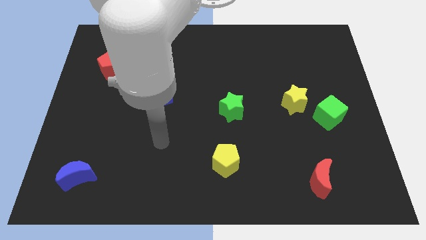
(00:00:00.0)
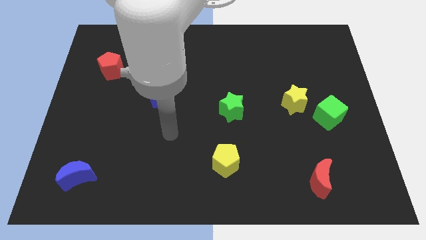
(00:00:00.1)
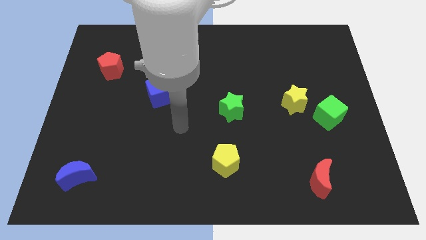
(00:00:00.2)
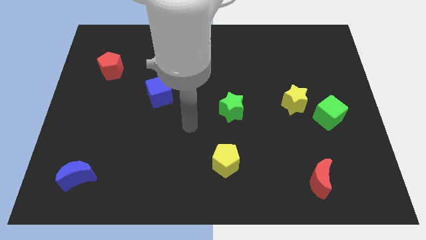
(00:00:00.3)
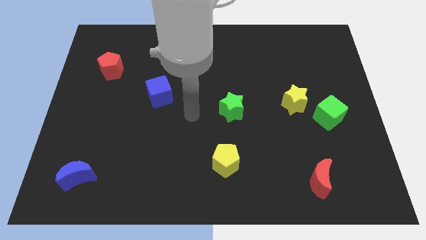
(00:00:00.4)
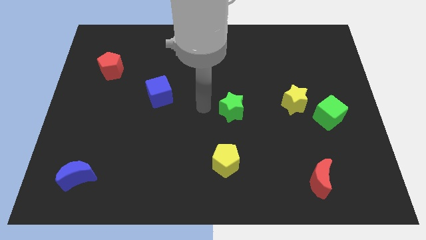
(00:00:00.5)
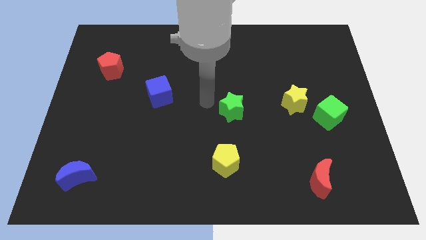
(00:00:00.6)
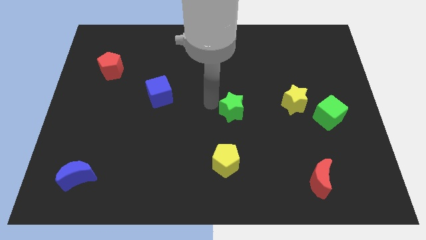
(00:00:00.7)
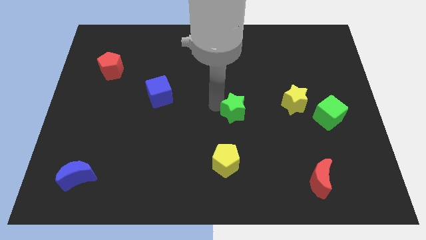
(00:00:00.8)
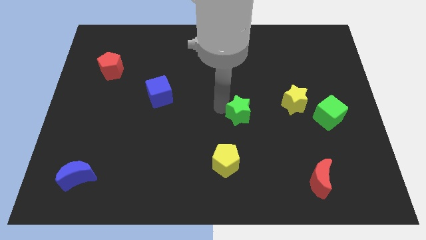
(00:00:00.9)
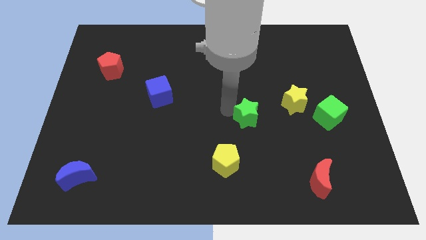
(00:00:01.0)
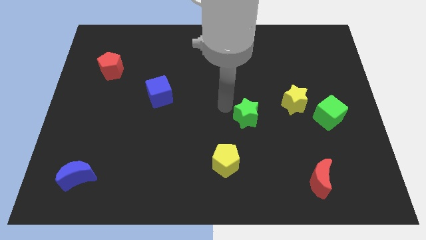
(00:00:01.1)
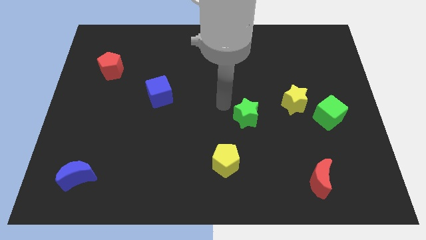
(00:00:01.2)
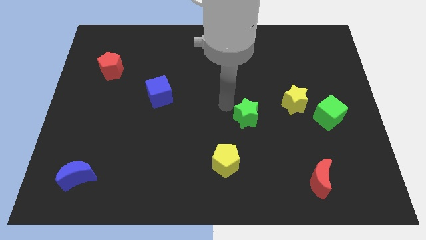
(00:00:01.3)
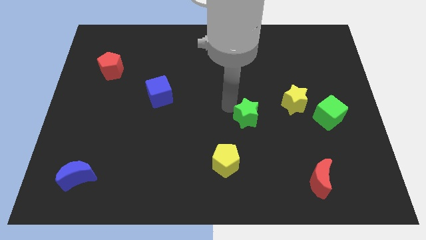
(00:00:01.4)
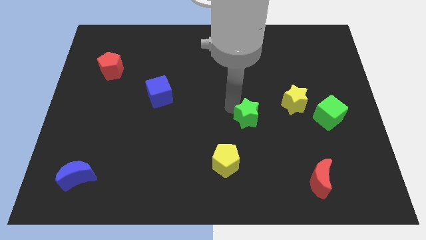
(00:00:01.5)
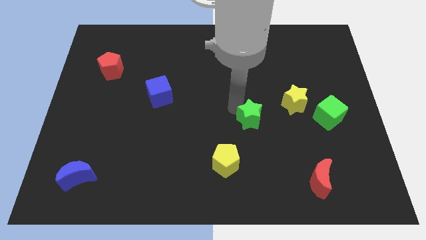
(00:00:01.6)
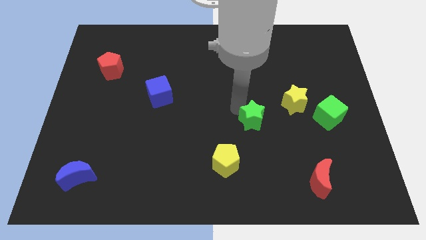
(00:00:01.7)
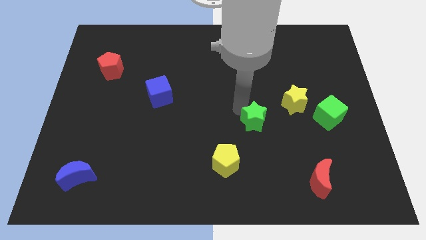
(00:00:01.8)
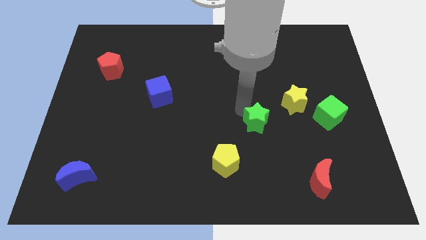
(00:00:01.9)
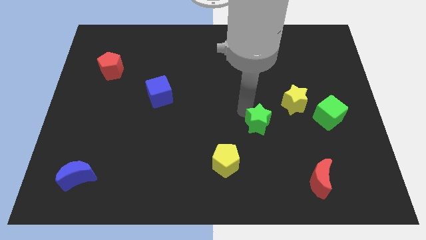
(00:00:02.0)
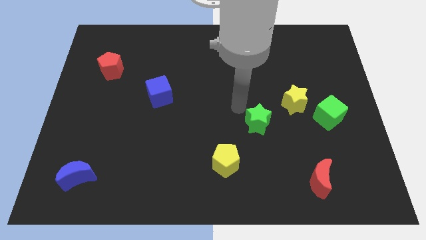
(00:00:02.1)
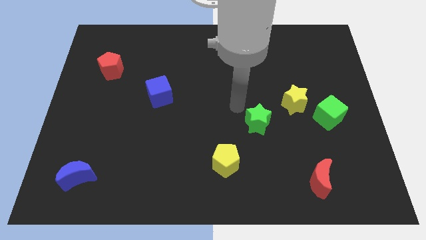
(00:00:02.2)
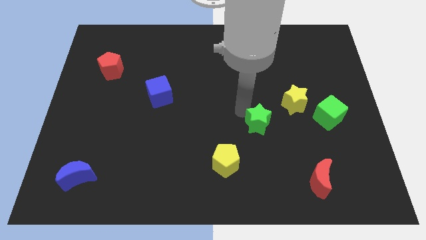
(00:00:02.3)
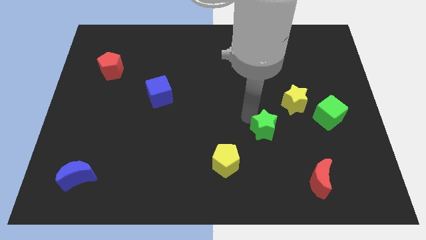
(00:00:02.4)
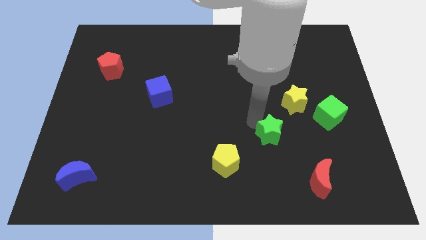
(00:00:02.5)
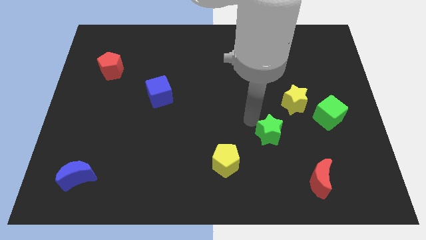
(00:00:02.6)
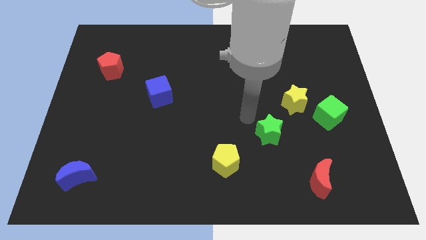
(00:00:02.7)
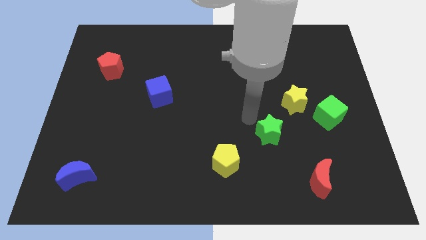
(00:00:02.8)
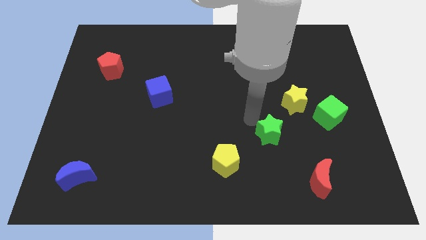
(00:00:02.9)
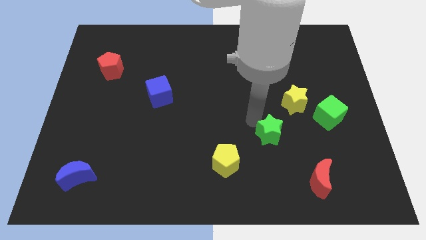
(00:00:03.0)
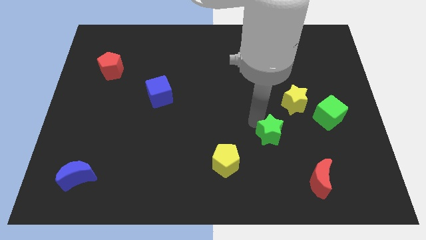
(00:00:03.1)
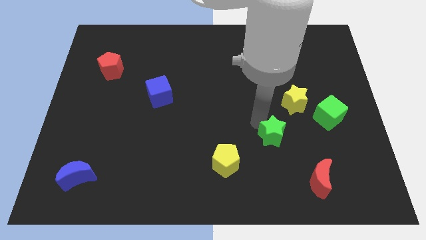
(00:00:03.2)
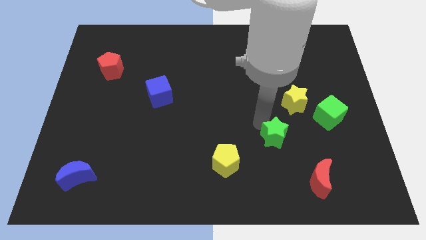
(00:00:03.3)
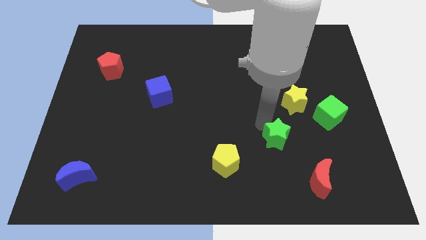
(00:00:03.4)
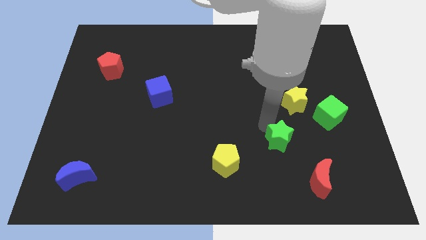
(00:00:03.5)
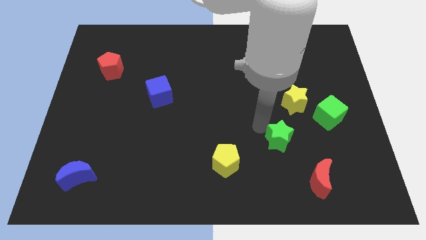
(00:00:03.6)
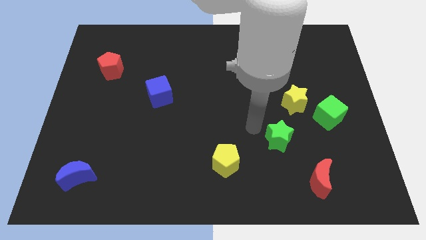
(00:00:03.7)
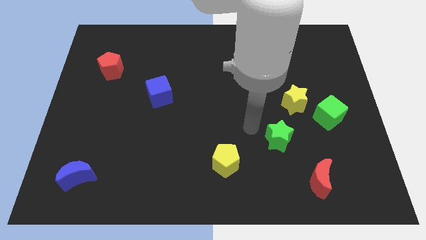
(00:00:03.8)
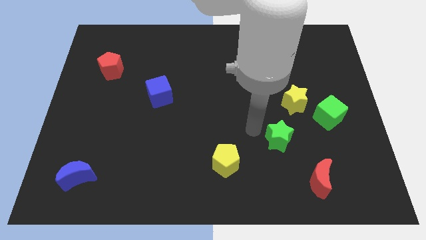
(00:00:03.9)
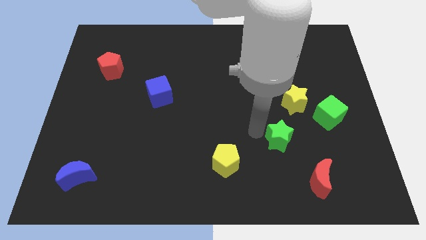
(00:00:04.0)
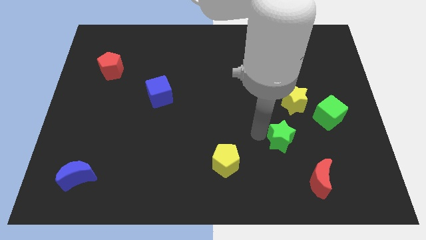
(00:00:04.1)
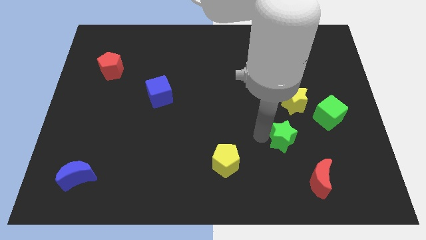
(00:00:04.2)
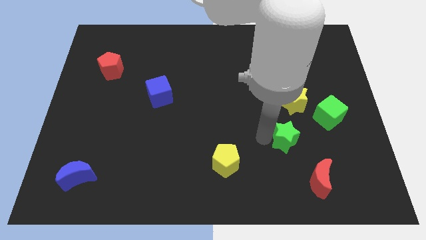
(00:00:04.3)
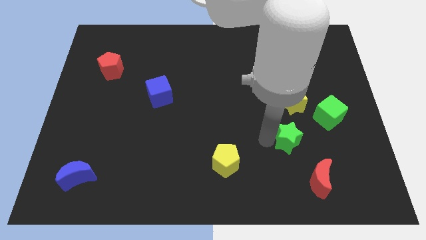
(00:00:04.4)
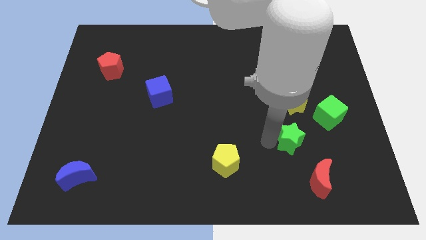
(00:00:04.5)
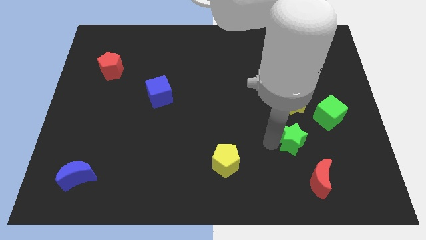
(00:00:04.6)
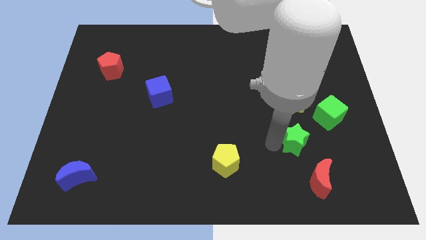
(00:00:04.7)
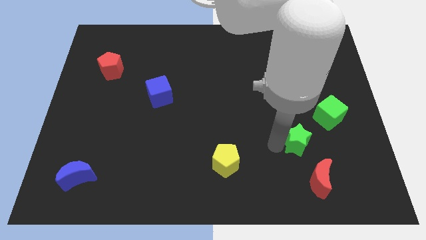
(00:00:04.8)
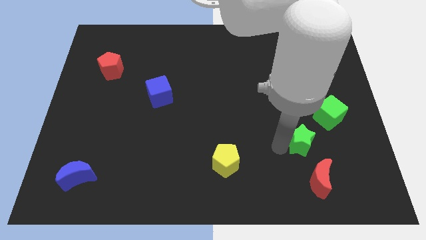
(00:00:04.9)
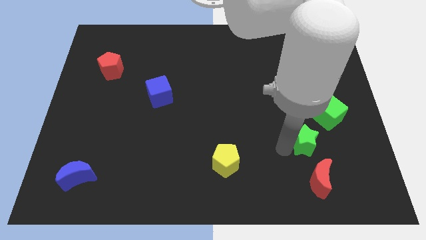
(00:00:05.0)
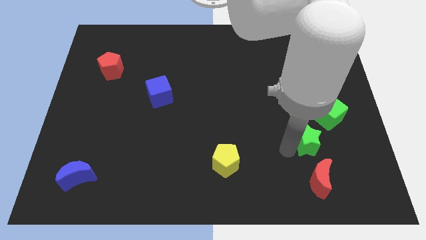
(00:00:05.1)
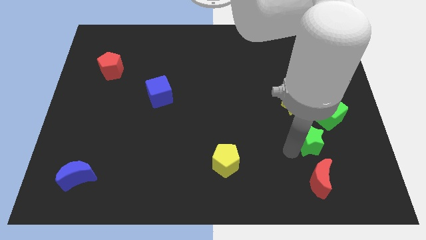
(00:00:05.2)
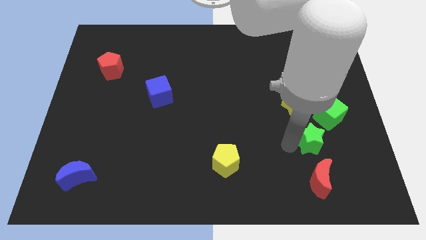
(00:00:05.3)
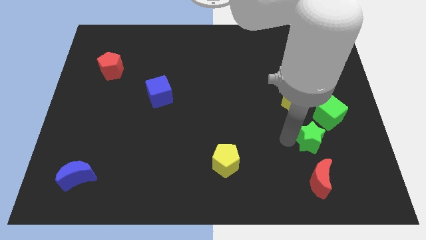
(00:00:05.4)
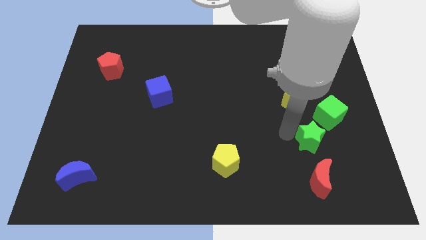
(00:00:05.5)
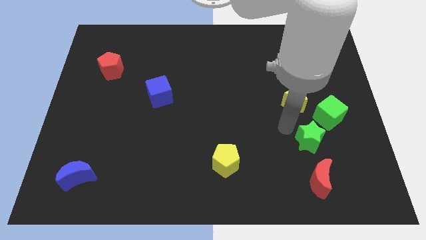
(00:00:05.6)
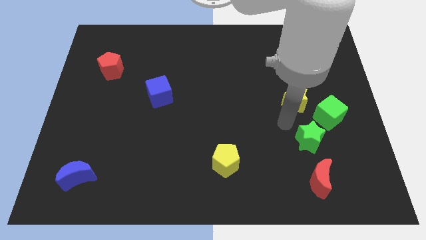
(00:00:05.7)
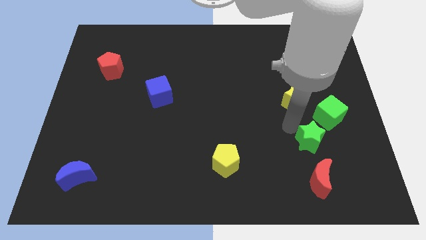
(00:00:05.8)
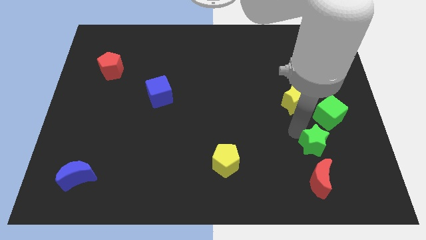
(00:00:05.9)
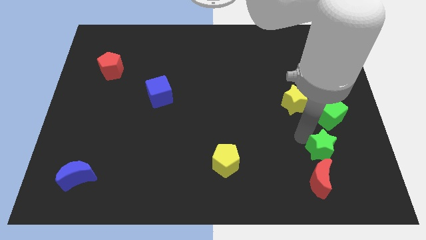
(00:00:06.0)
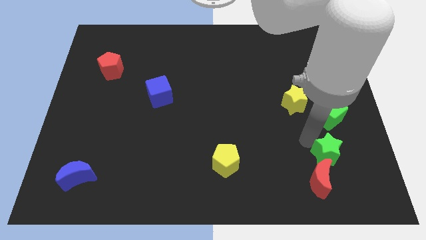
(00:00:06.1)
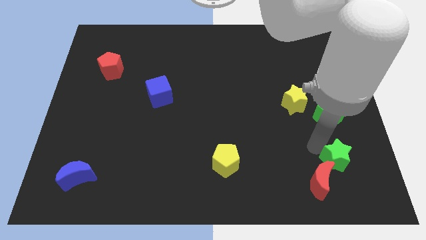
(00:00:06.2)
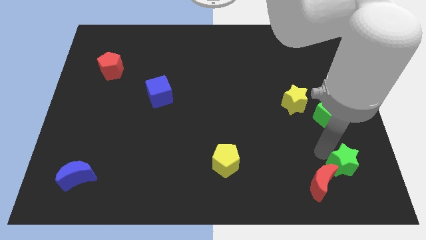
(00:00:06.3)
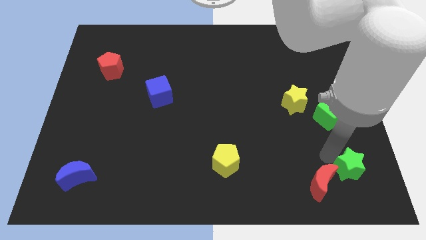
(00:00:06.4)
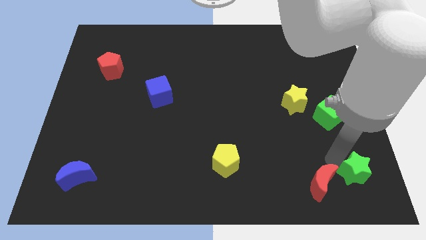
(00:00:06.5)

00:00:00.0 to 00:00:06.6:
push the green star to the bottom right corner

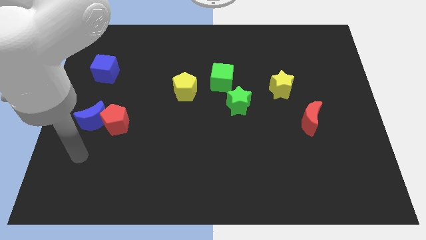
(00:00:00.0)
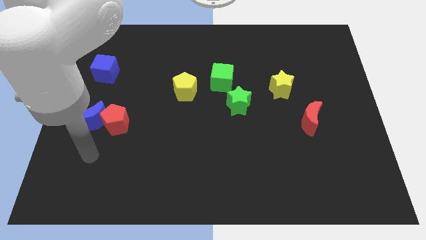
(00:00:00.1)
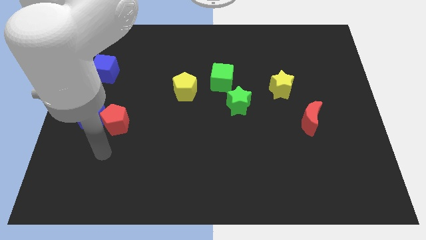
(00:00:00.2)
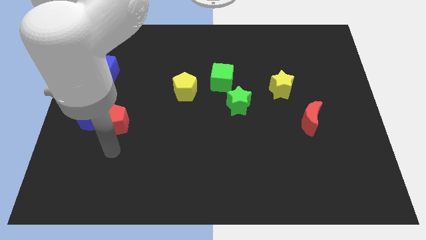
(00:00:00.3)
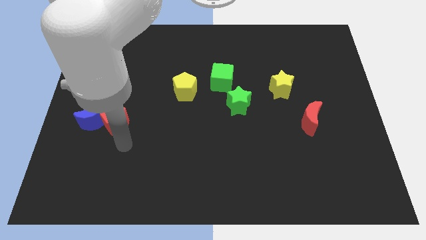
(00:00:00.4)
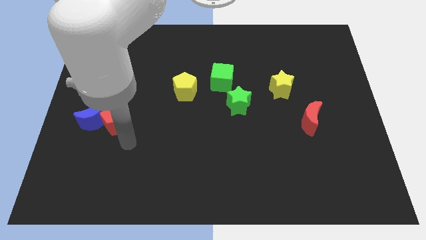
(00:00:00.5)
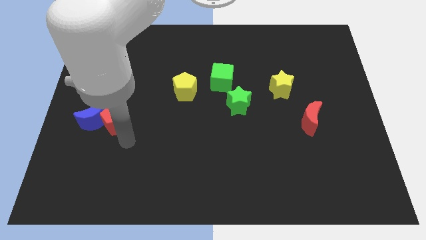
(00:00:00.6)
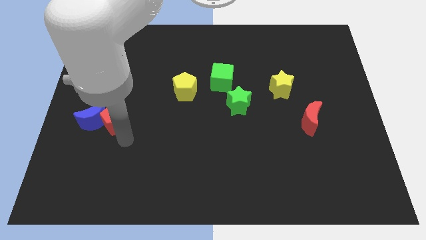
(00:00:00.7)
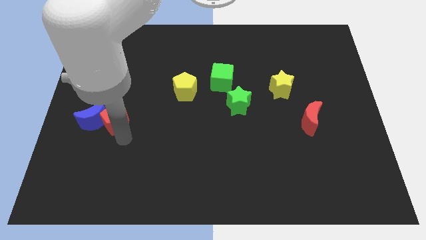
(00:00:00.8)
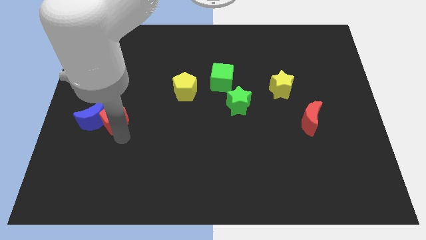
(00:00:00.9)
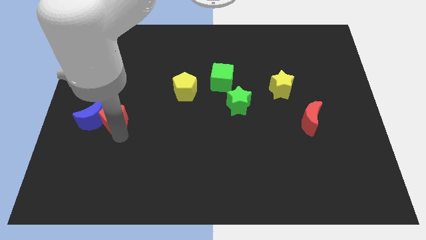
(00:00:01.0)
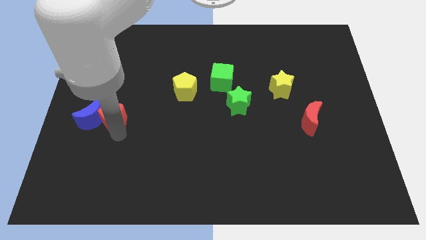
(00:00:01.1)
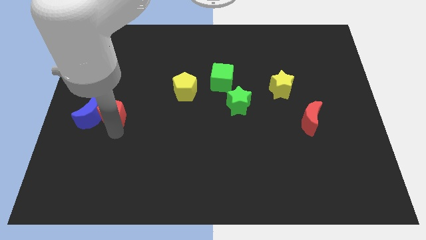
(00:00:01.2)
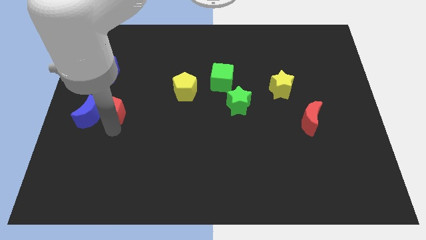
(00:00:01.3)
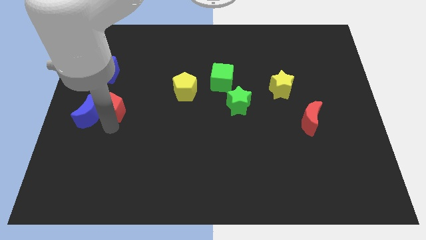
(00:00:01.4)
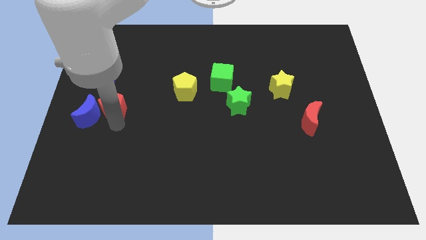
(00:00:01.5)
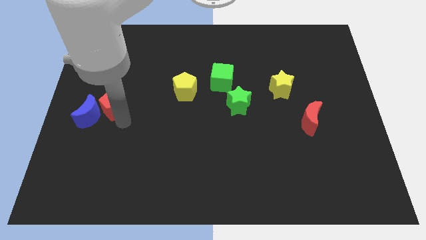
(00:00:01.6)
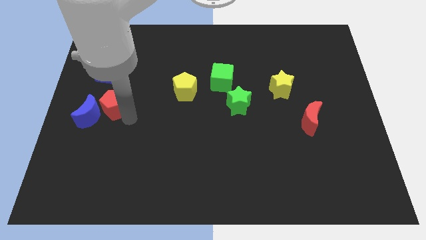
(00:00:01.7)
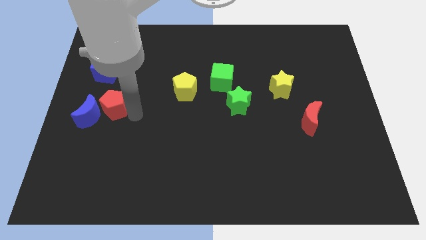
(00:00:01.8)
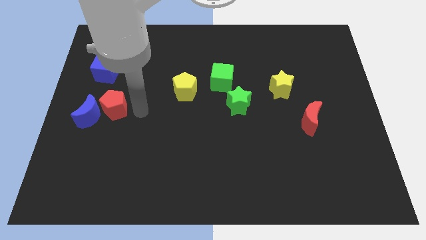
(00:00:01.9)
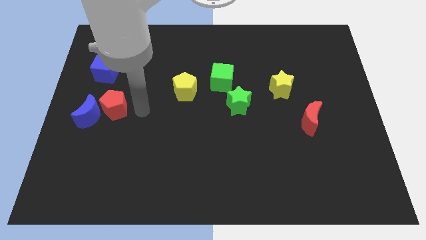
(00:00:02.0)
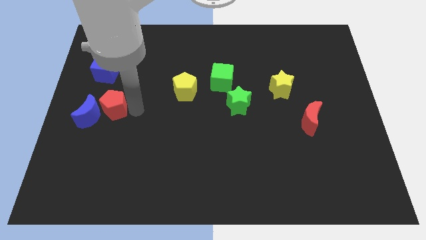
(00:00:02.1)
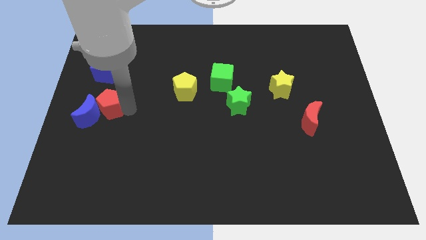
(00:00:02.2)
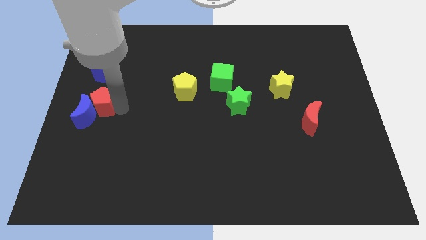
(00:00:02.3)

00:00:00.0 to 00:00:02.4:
move the red pentagon to the left side
